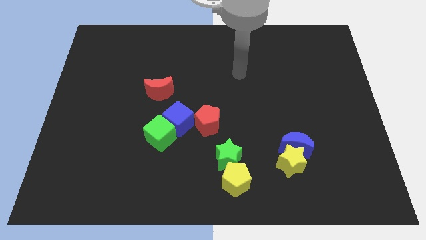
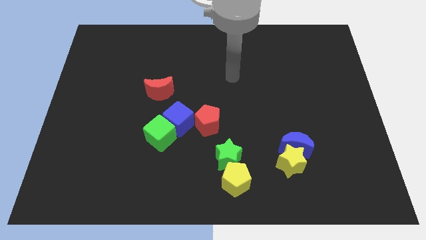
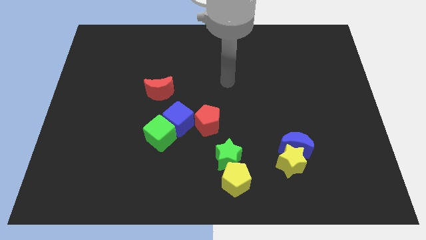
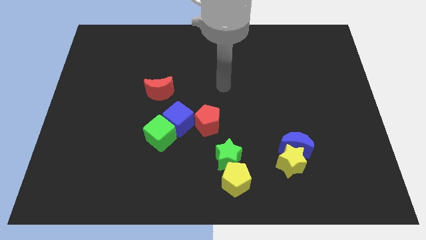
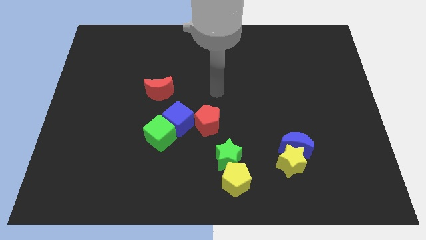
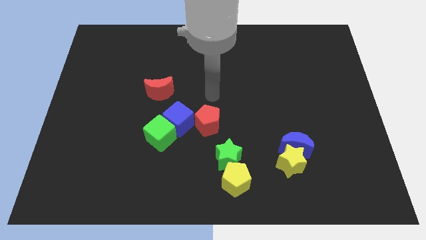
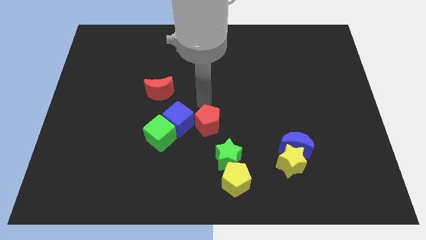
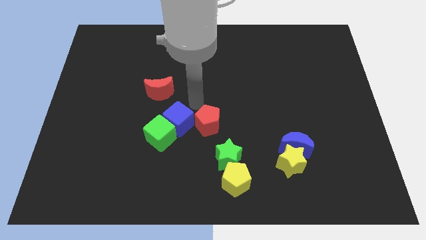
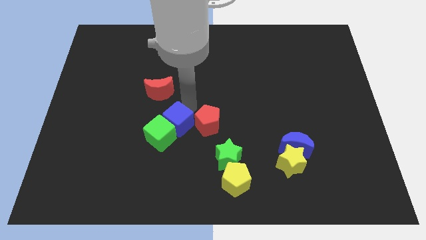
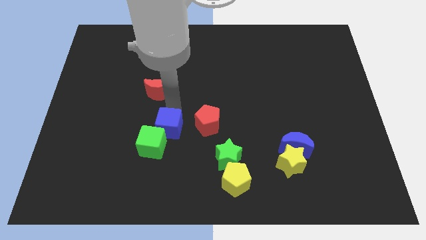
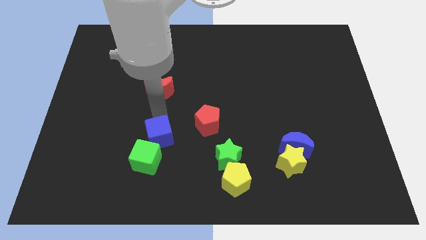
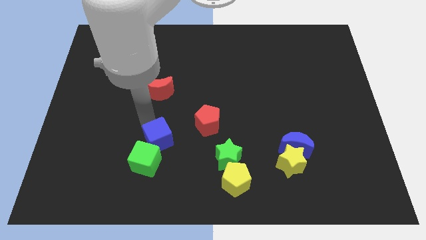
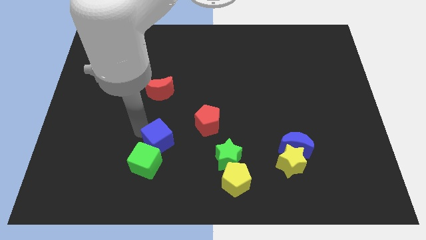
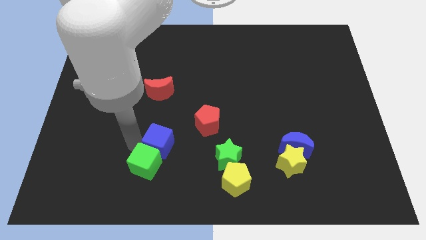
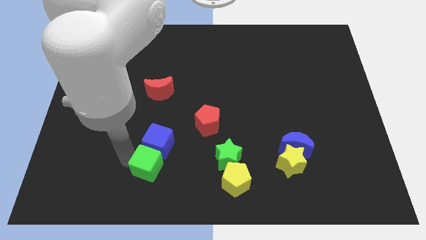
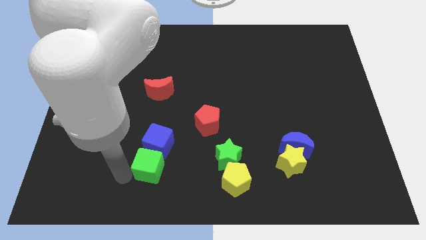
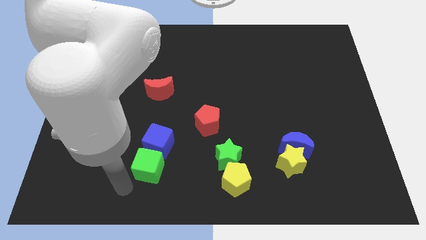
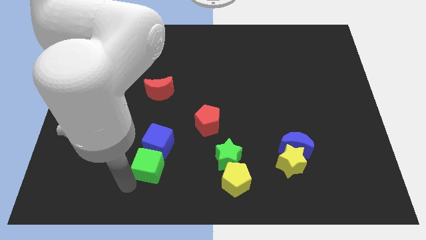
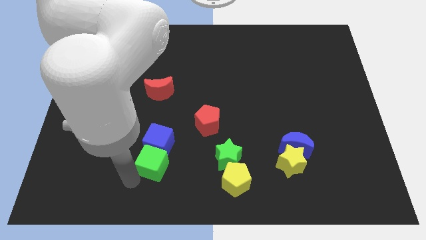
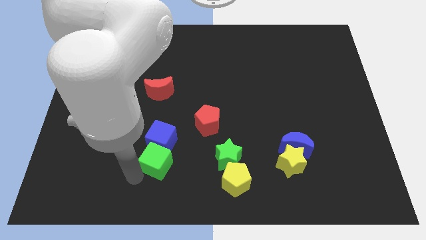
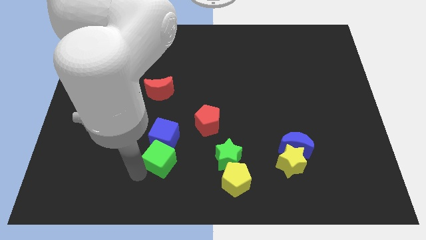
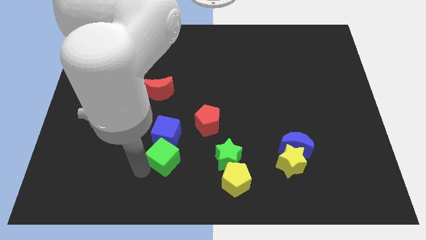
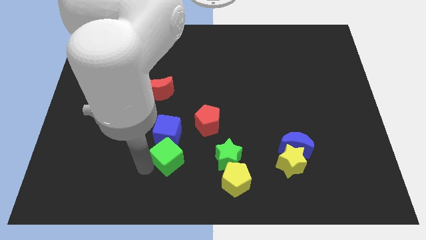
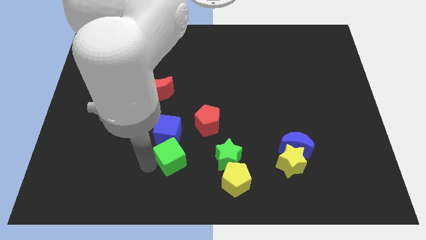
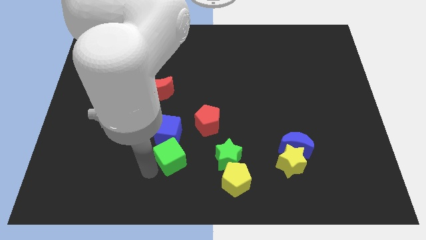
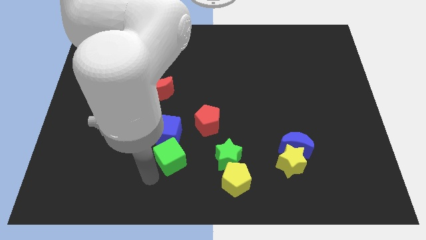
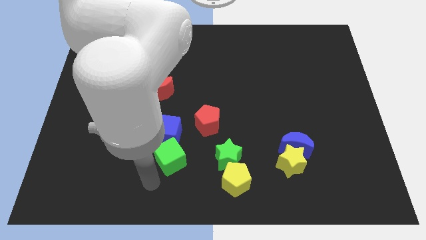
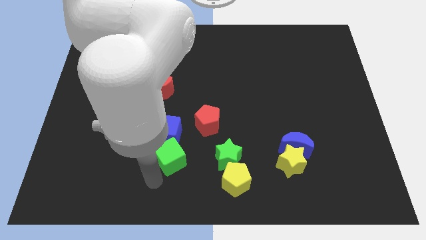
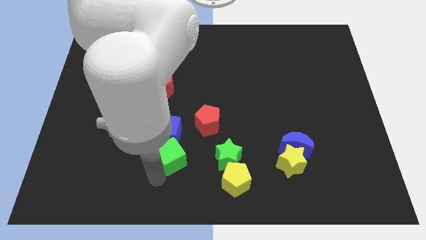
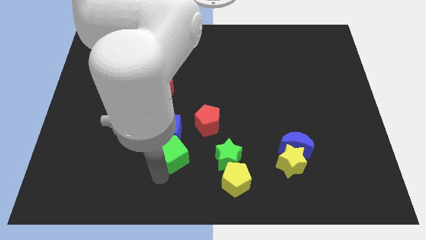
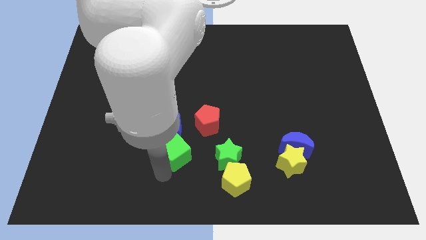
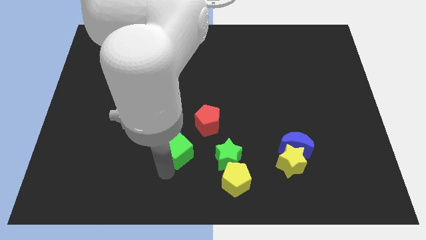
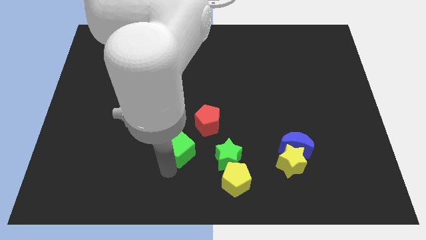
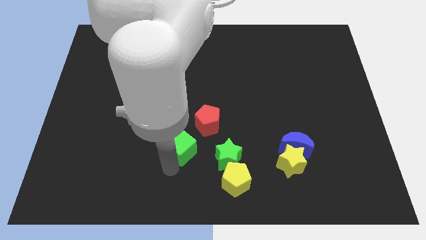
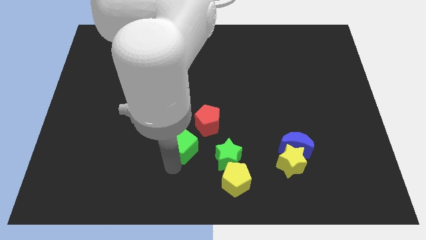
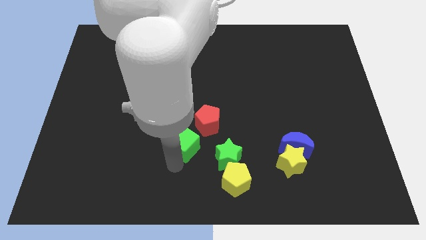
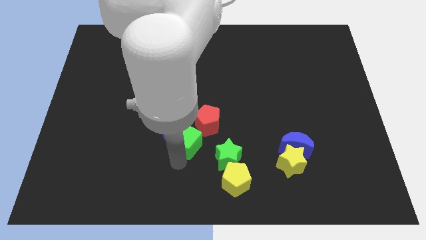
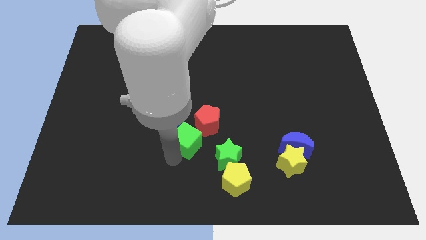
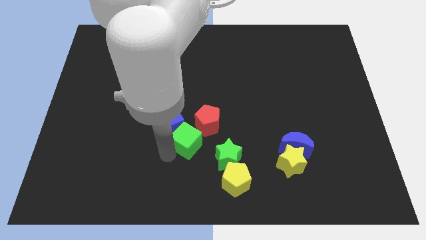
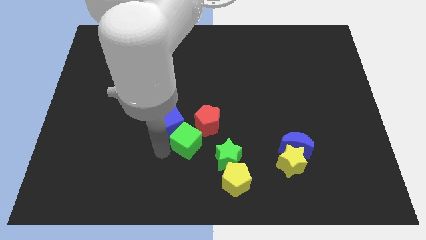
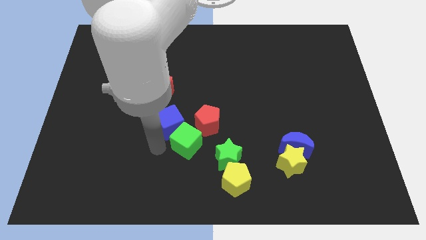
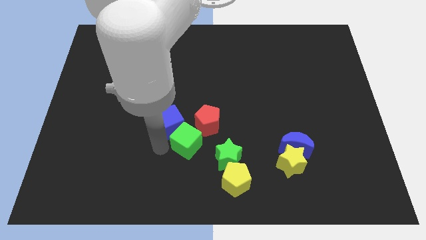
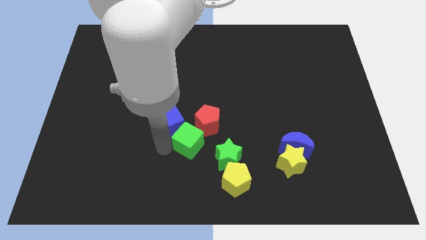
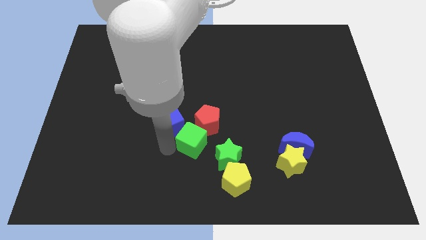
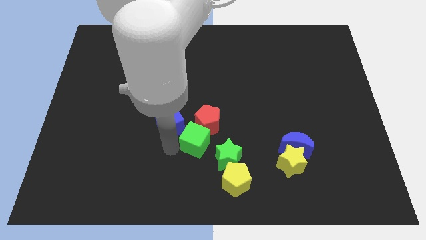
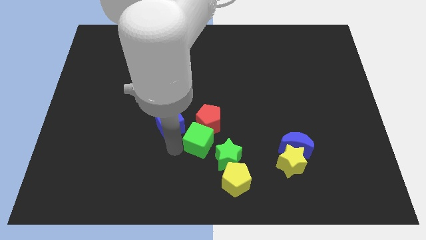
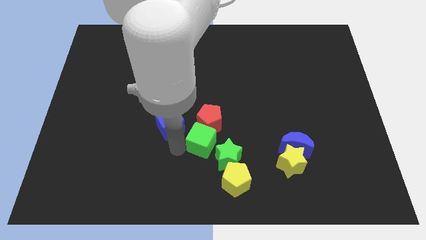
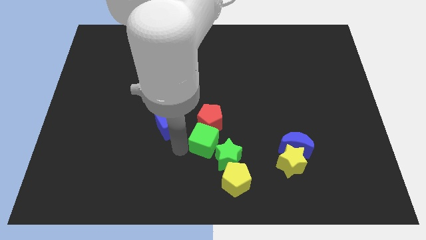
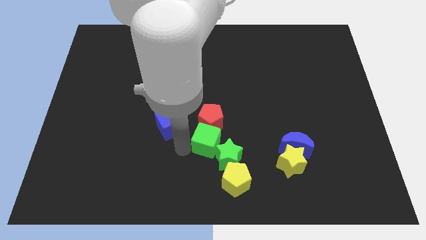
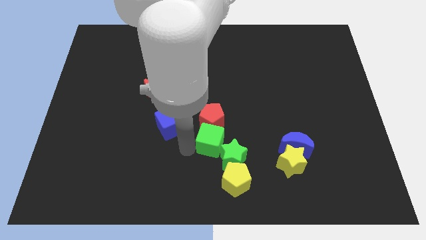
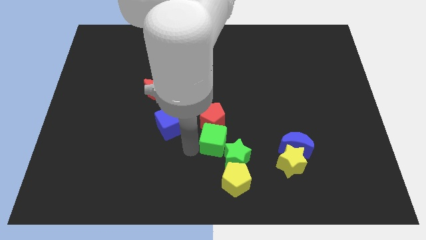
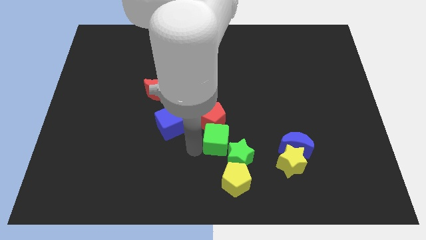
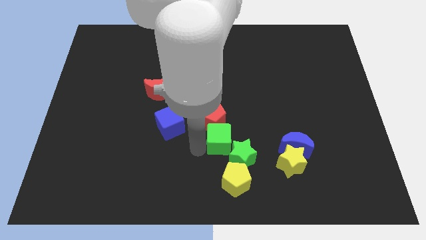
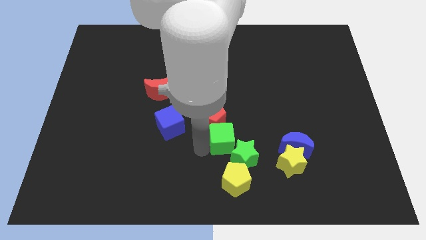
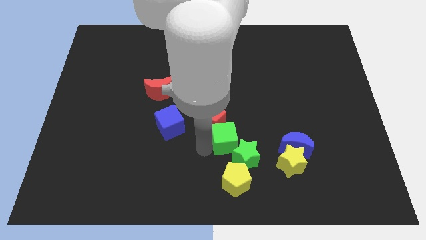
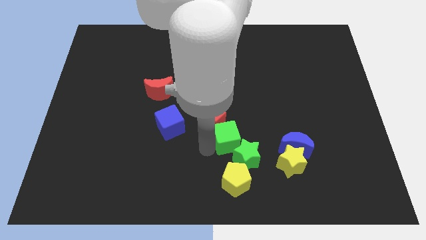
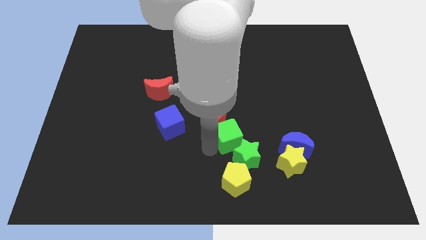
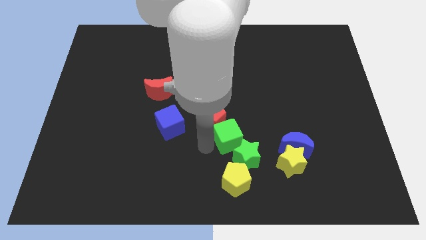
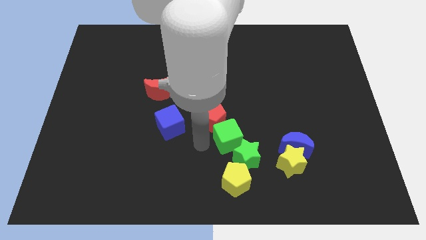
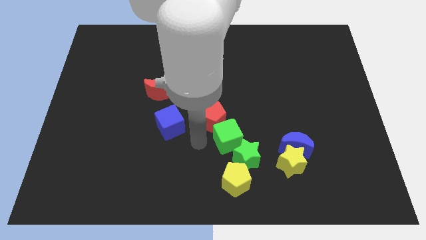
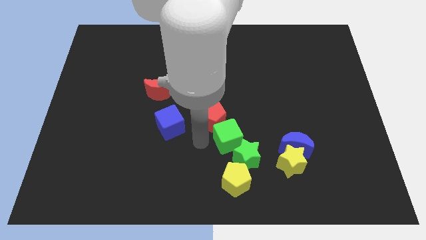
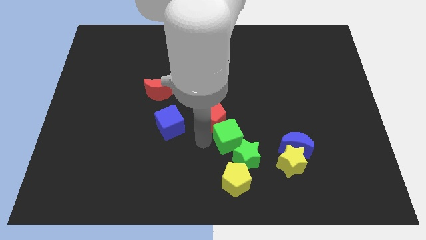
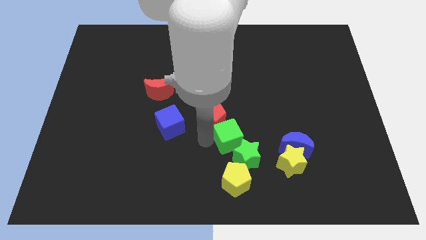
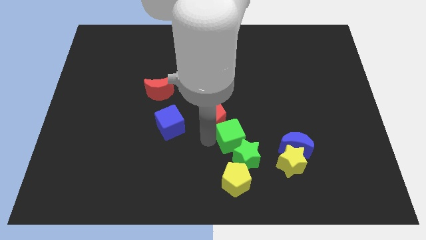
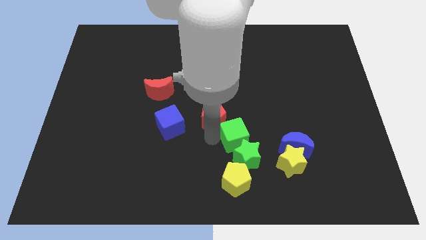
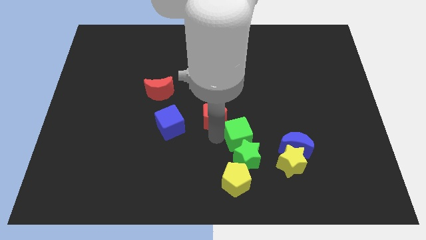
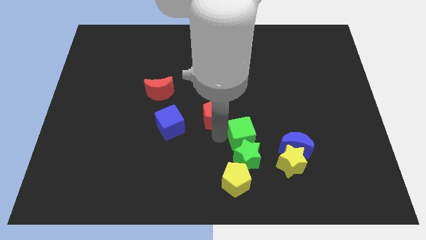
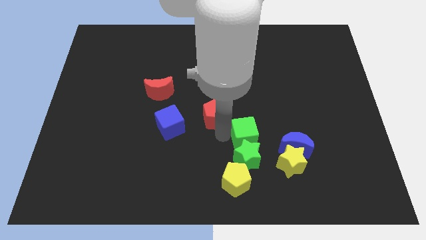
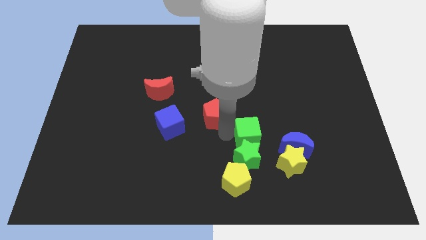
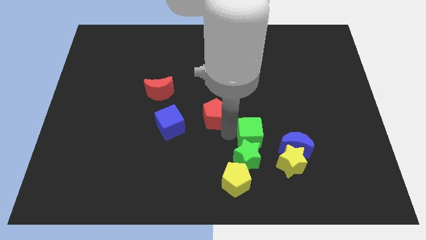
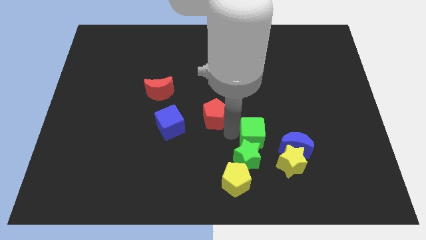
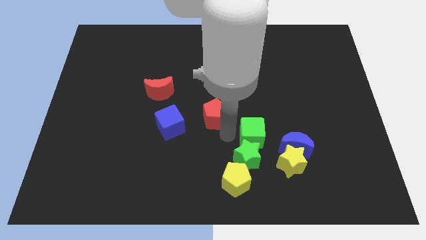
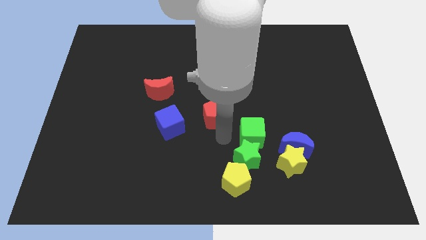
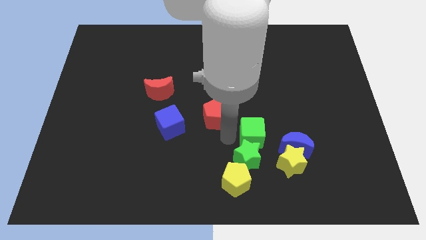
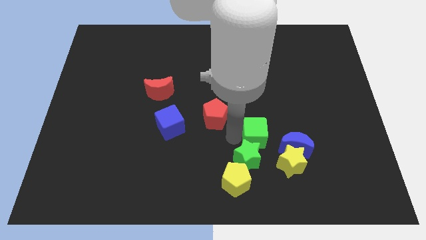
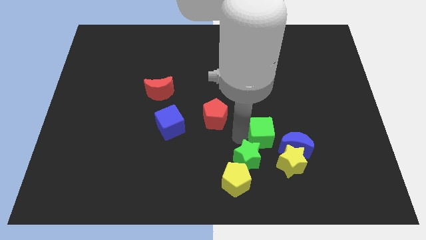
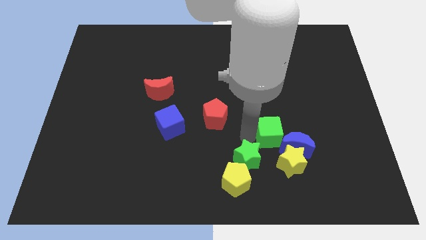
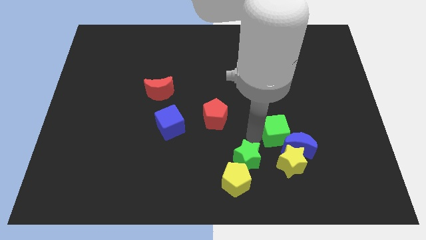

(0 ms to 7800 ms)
push the green cube towards the blue moon

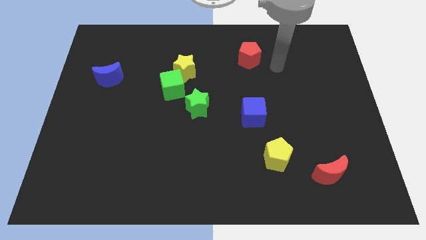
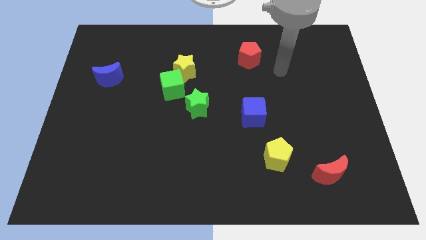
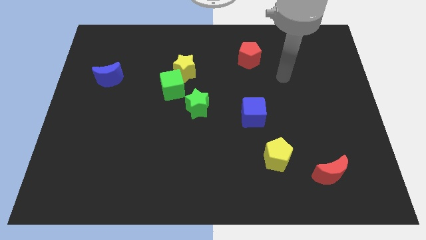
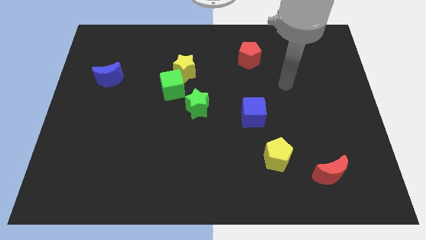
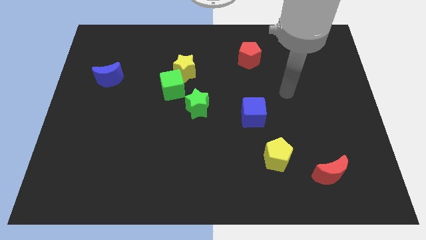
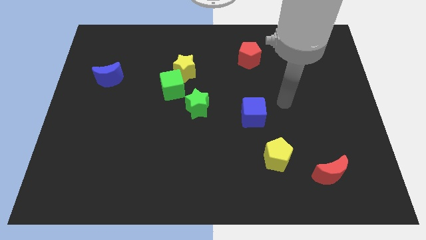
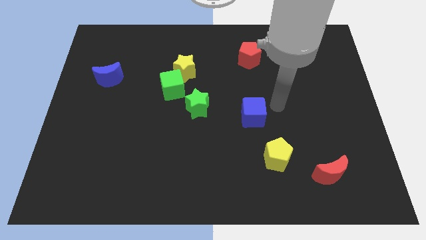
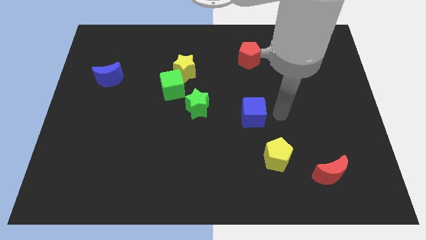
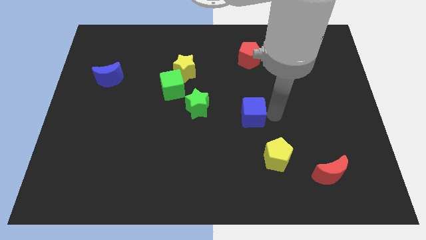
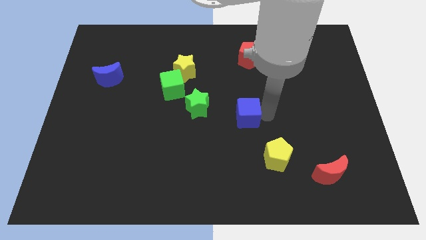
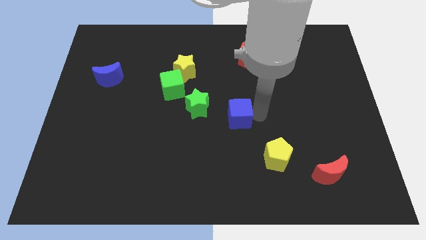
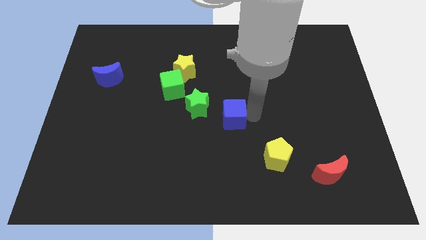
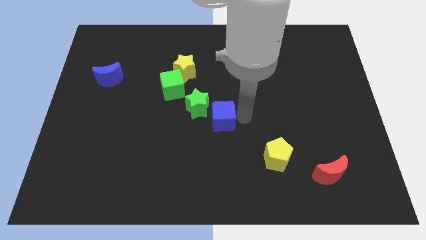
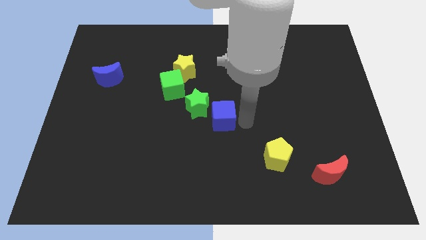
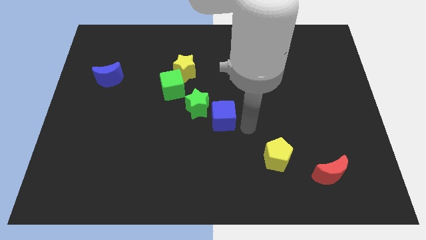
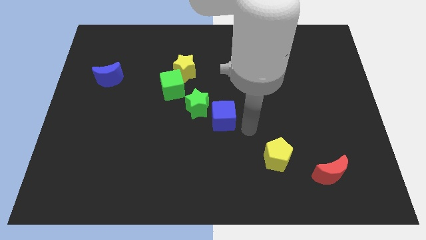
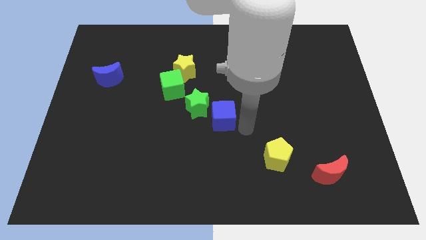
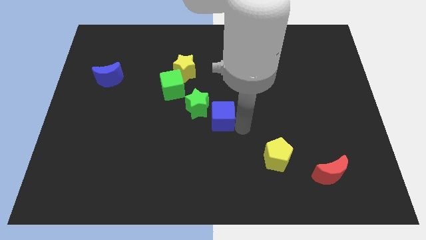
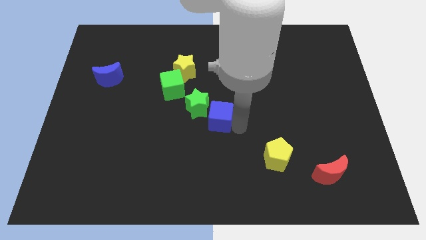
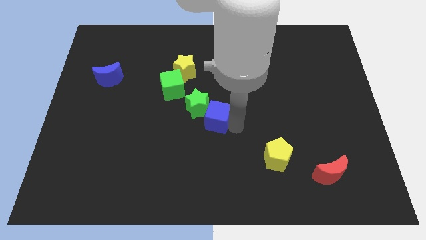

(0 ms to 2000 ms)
move the blue cube close to the green star
